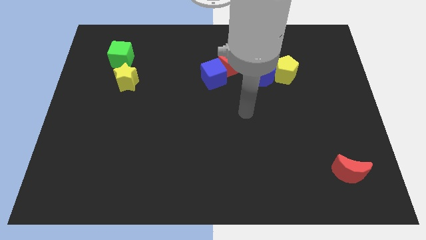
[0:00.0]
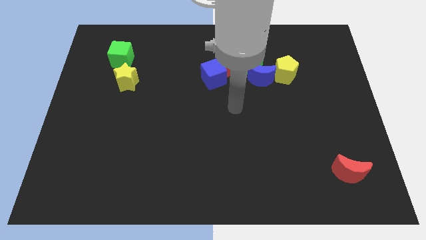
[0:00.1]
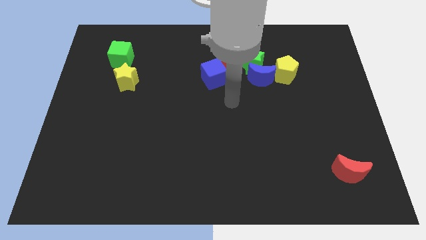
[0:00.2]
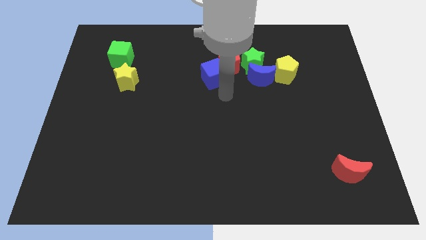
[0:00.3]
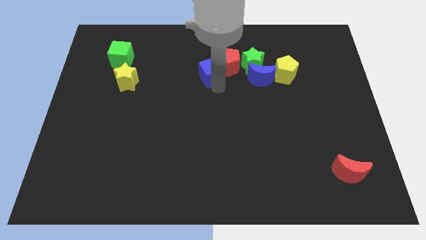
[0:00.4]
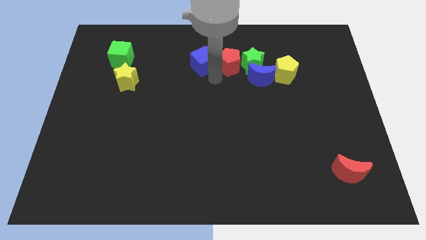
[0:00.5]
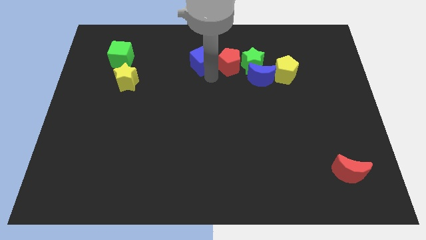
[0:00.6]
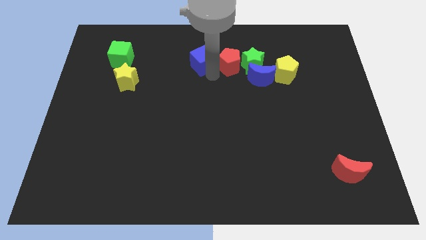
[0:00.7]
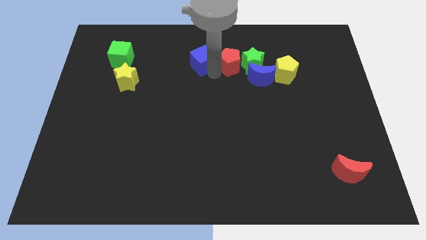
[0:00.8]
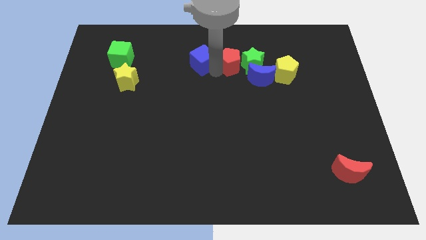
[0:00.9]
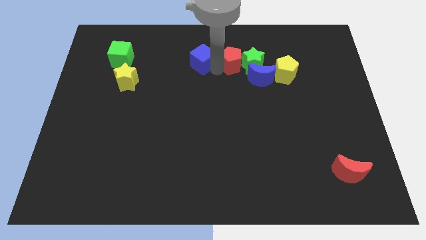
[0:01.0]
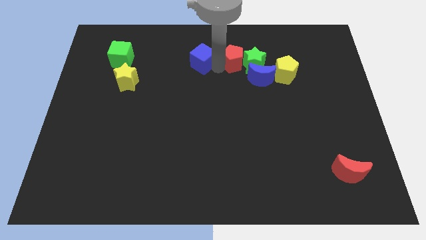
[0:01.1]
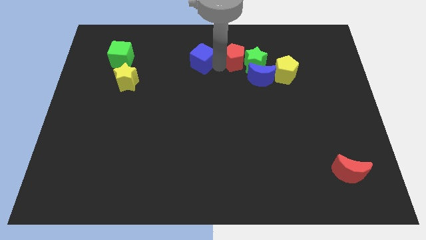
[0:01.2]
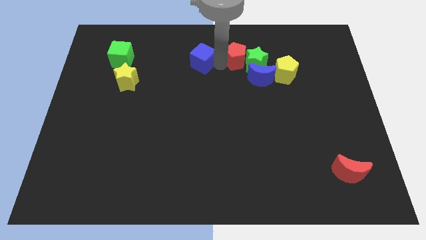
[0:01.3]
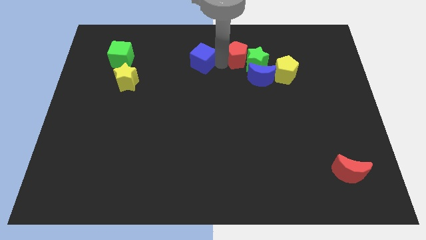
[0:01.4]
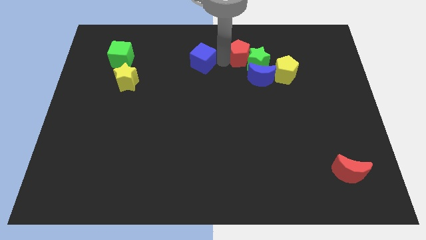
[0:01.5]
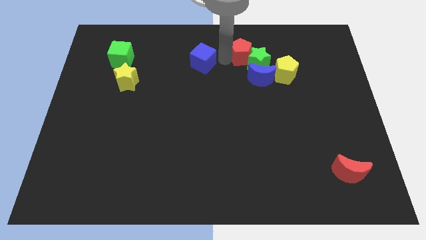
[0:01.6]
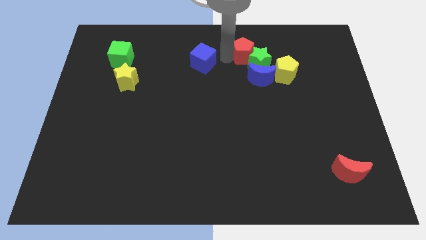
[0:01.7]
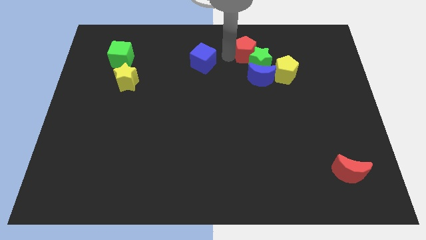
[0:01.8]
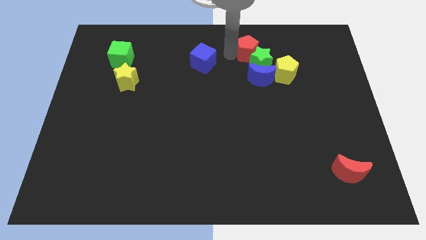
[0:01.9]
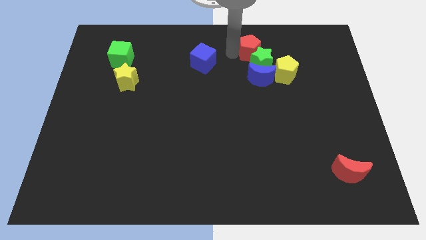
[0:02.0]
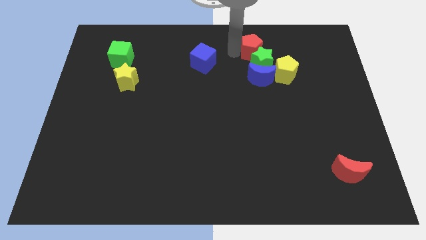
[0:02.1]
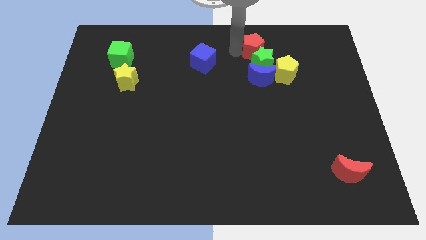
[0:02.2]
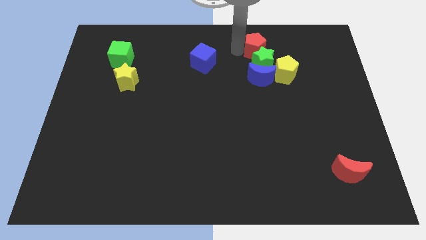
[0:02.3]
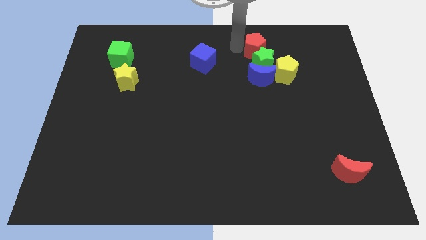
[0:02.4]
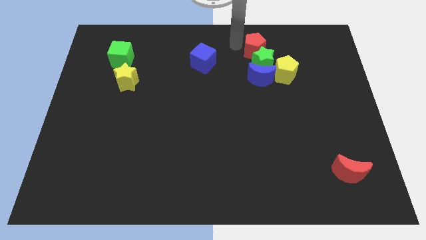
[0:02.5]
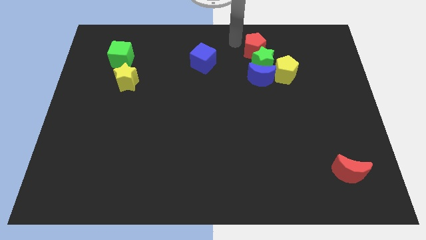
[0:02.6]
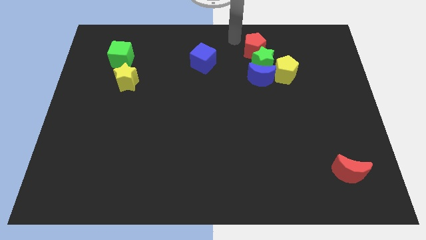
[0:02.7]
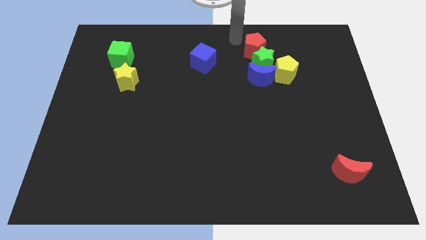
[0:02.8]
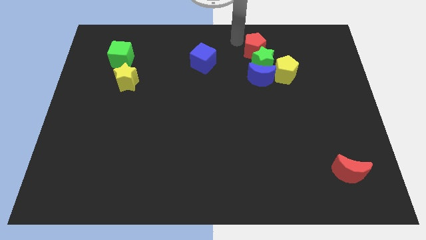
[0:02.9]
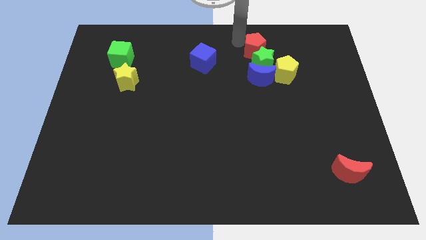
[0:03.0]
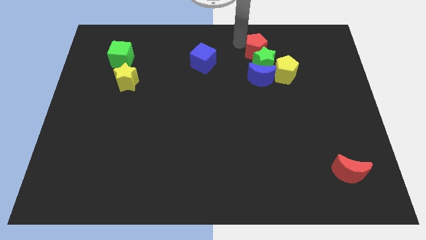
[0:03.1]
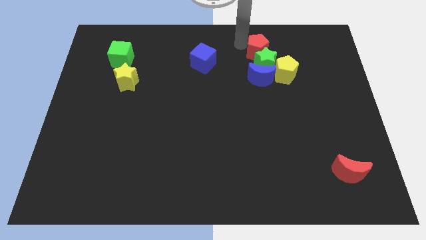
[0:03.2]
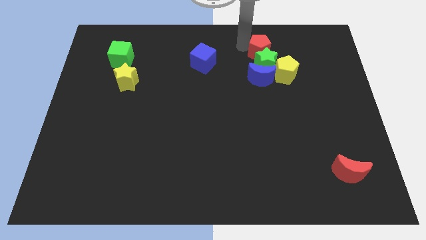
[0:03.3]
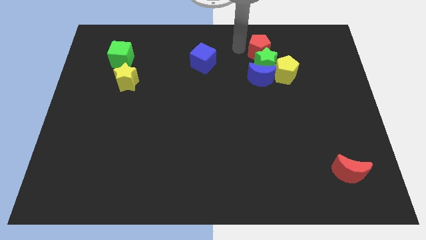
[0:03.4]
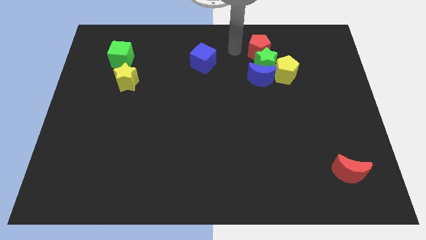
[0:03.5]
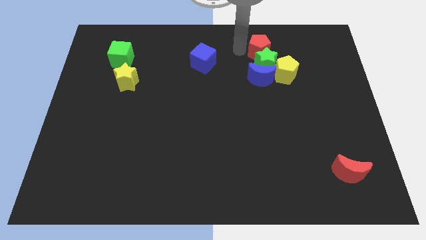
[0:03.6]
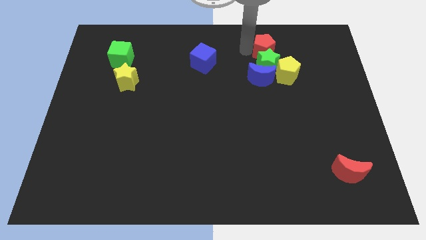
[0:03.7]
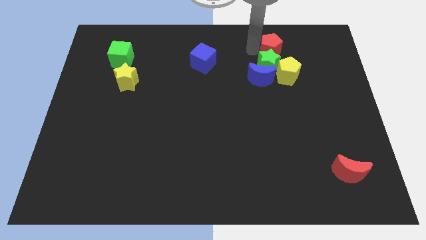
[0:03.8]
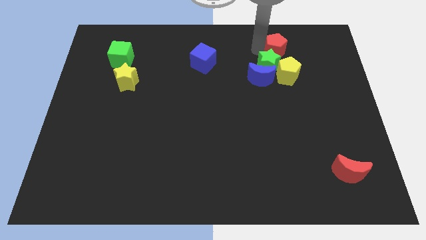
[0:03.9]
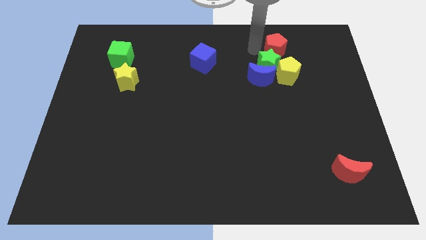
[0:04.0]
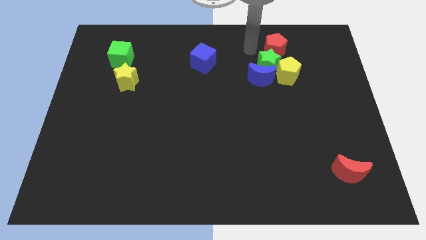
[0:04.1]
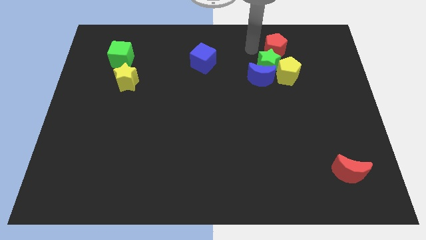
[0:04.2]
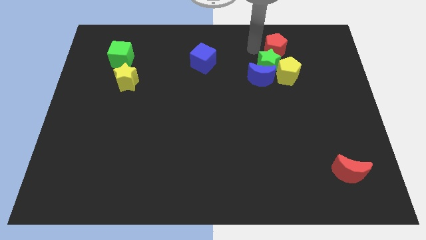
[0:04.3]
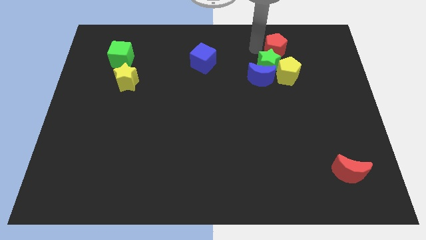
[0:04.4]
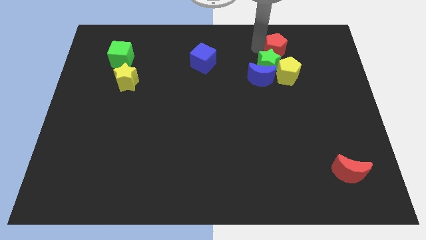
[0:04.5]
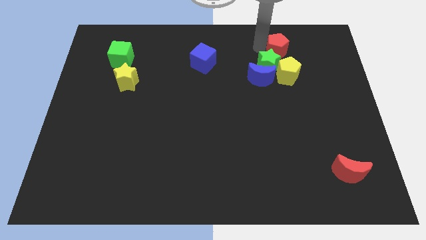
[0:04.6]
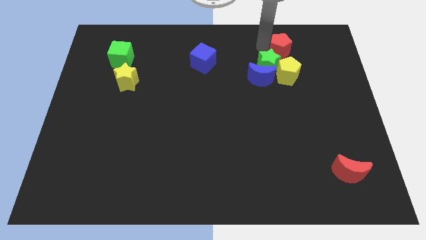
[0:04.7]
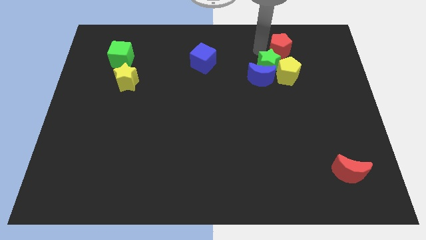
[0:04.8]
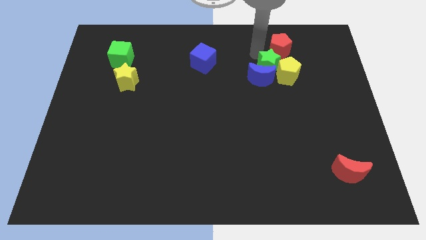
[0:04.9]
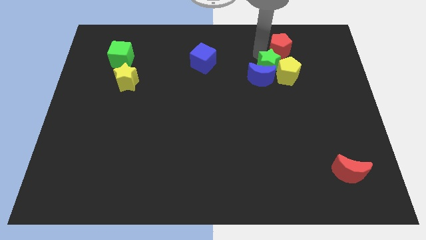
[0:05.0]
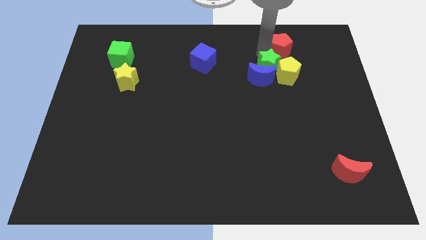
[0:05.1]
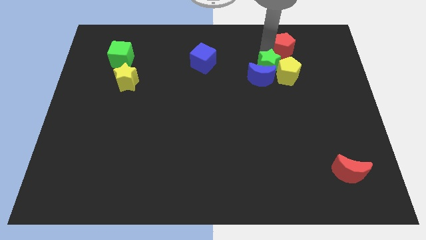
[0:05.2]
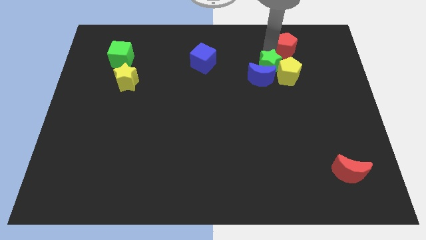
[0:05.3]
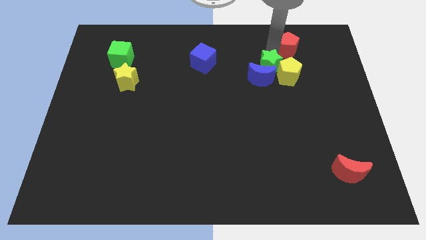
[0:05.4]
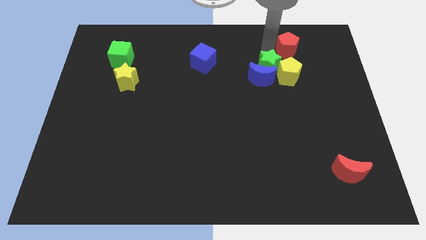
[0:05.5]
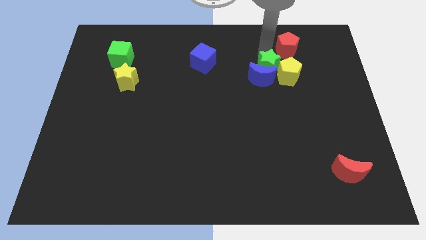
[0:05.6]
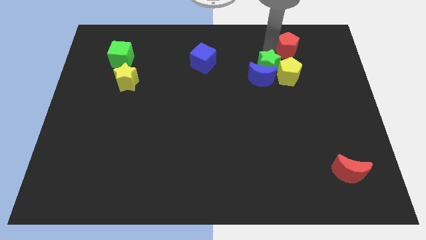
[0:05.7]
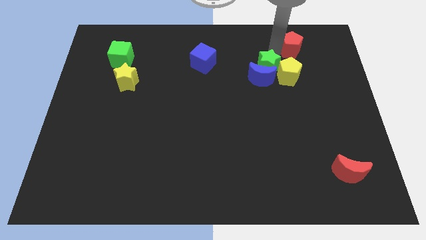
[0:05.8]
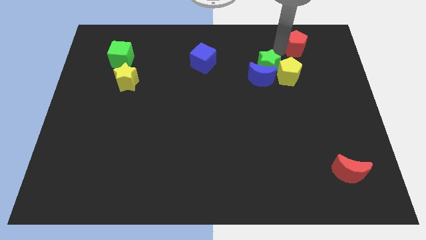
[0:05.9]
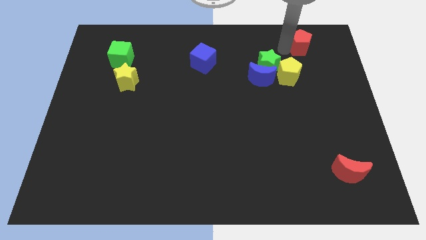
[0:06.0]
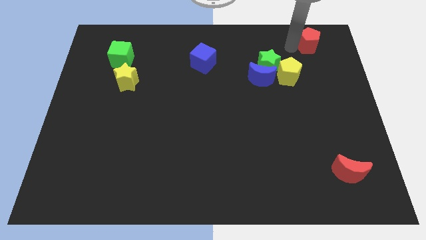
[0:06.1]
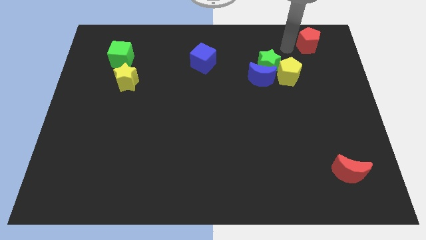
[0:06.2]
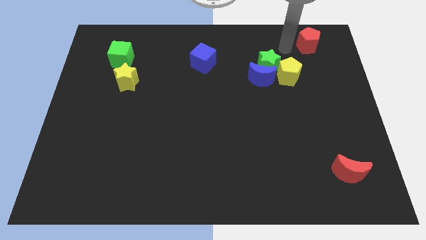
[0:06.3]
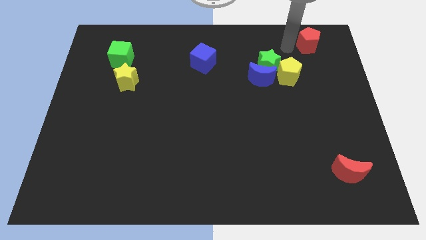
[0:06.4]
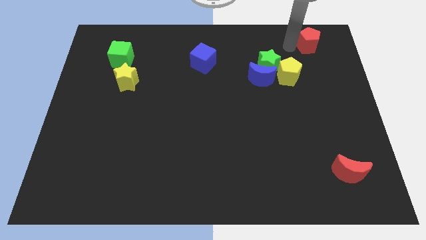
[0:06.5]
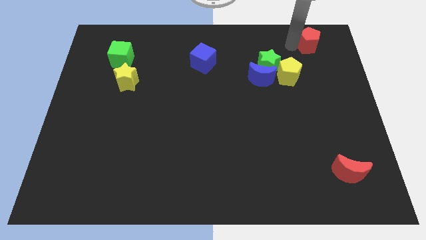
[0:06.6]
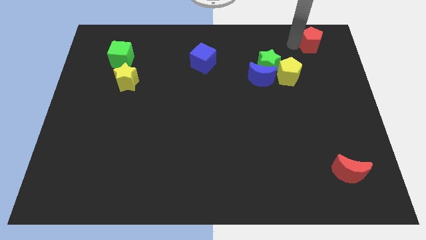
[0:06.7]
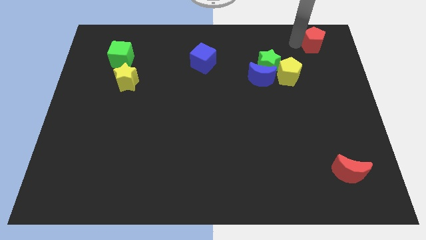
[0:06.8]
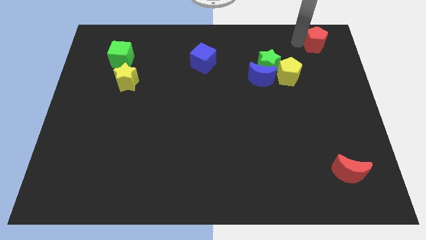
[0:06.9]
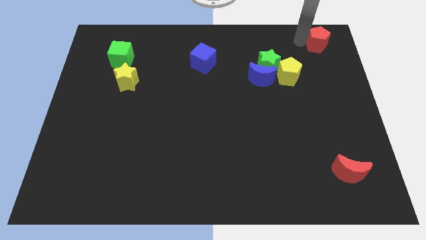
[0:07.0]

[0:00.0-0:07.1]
move the red pentagon to the top right of the board
